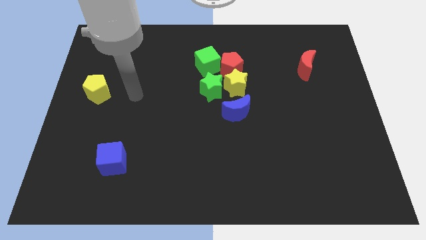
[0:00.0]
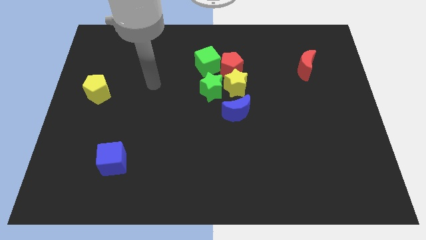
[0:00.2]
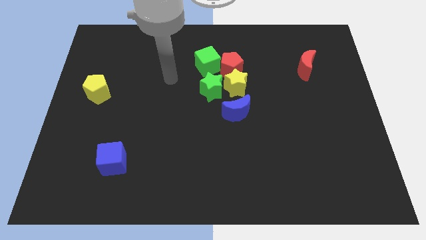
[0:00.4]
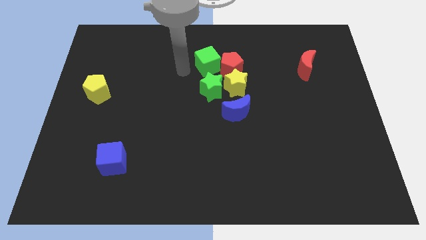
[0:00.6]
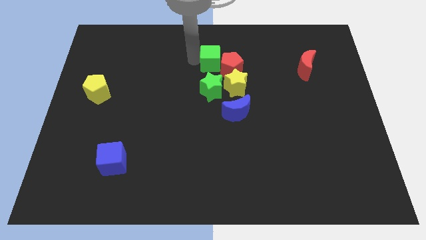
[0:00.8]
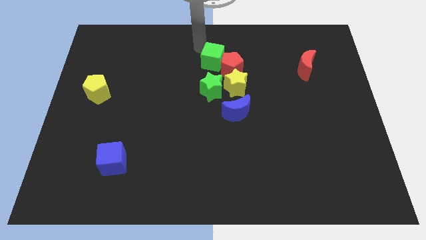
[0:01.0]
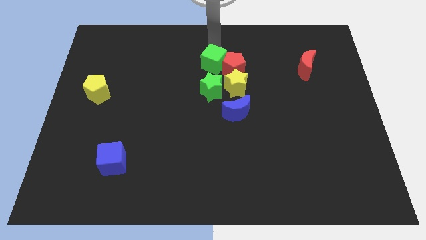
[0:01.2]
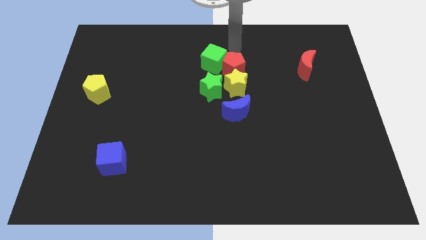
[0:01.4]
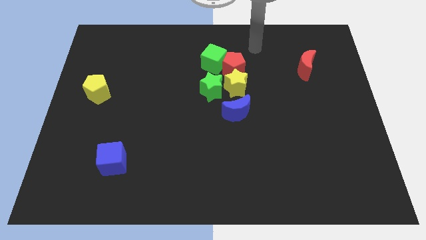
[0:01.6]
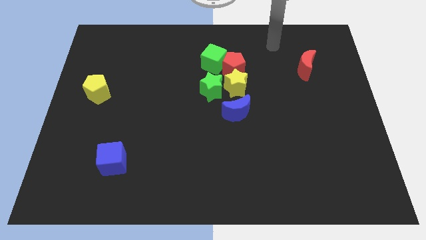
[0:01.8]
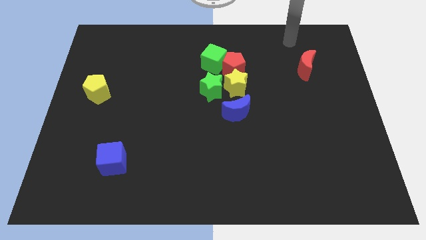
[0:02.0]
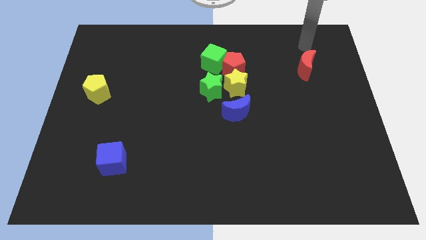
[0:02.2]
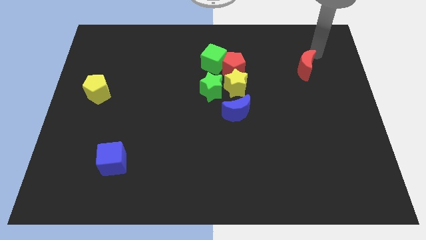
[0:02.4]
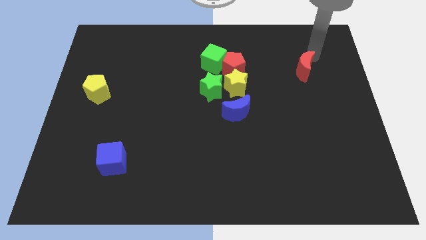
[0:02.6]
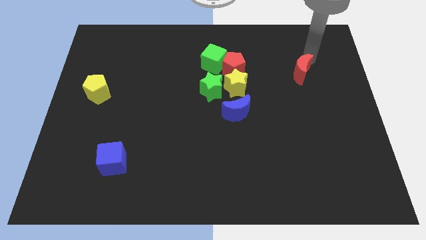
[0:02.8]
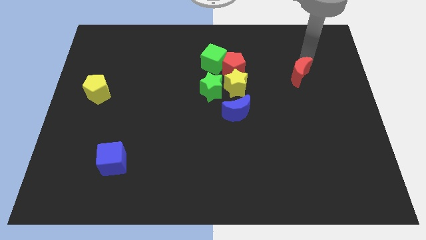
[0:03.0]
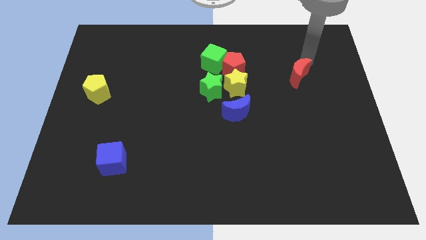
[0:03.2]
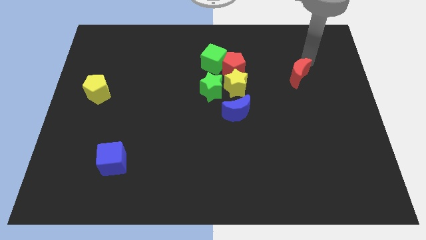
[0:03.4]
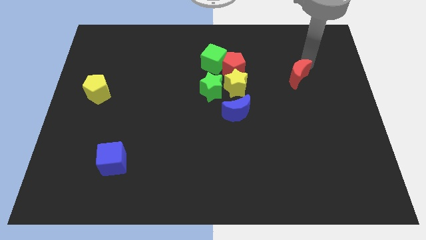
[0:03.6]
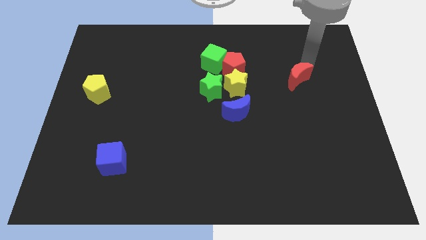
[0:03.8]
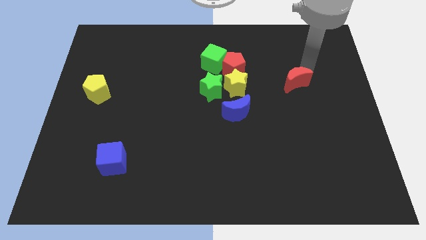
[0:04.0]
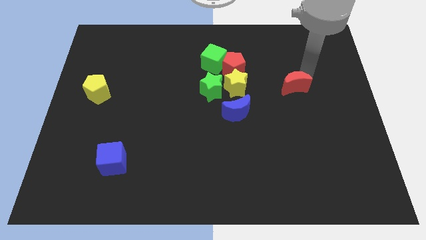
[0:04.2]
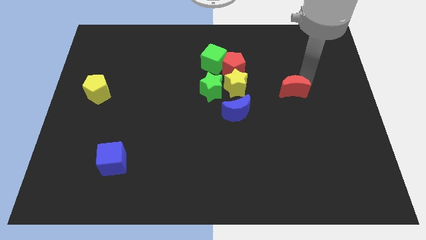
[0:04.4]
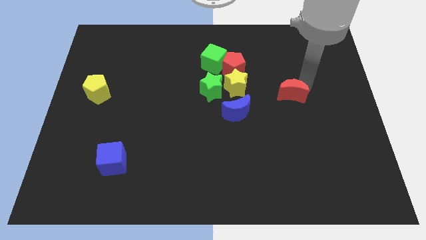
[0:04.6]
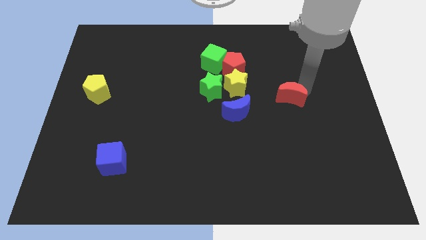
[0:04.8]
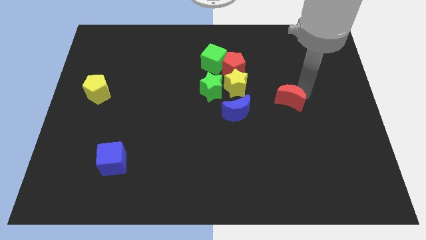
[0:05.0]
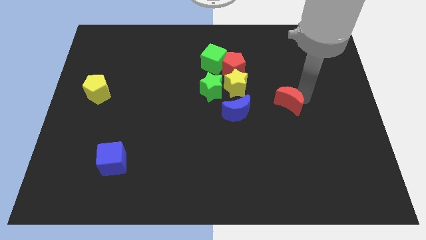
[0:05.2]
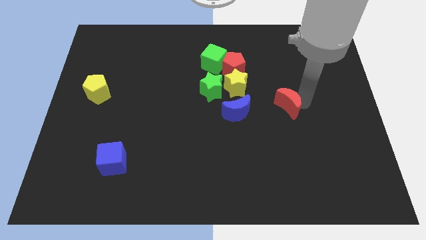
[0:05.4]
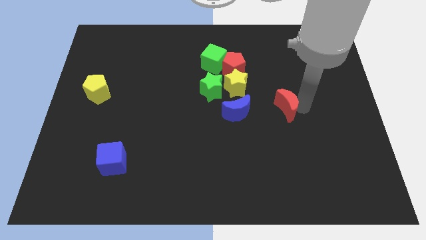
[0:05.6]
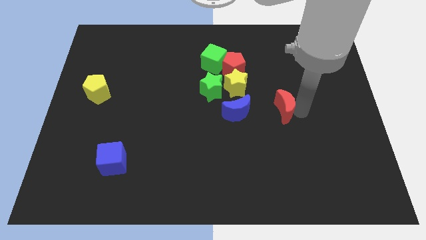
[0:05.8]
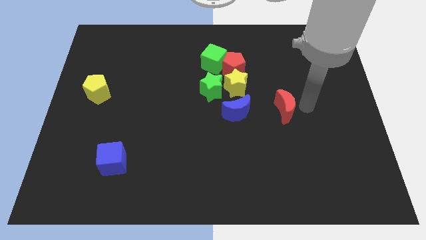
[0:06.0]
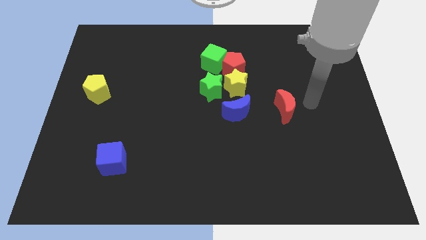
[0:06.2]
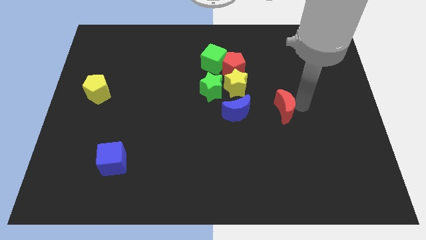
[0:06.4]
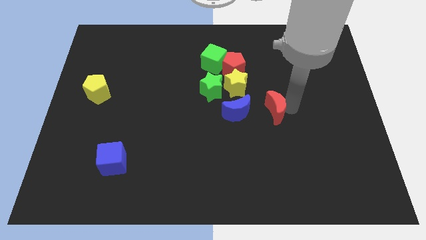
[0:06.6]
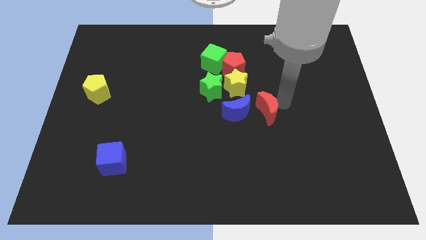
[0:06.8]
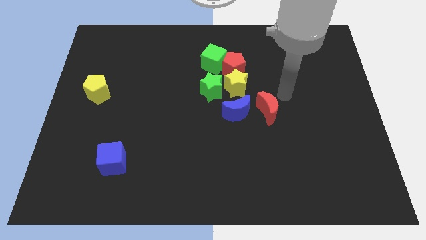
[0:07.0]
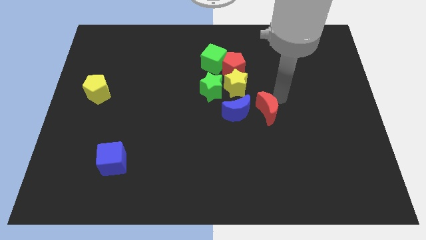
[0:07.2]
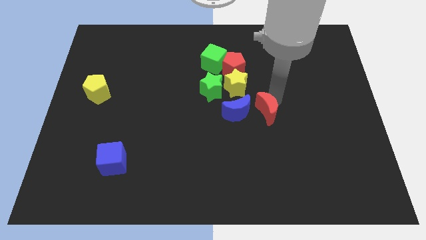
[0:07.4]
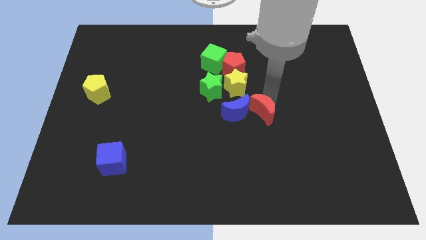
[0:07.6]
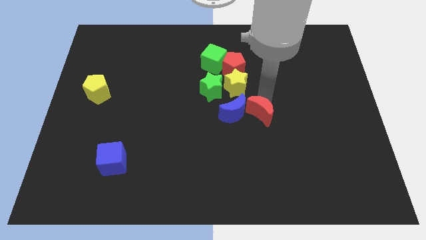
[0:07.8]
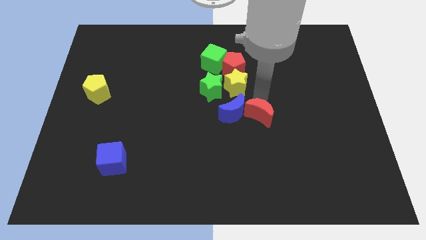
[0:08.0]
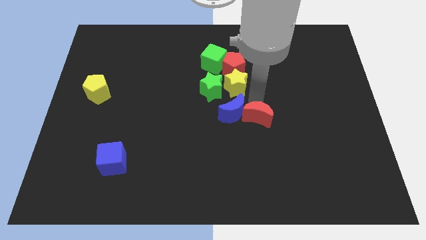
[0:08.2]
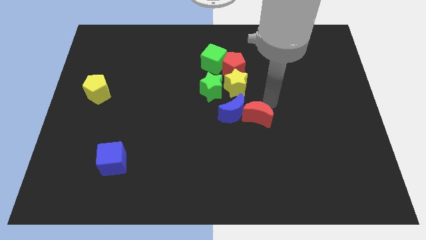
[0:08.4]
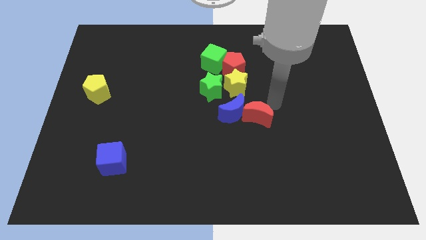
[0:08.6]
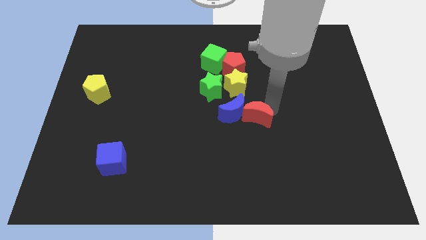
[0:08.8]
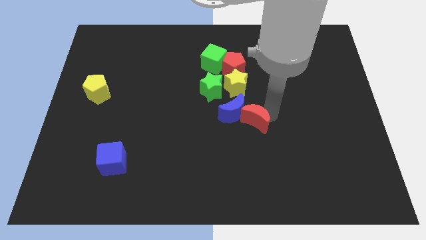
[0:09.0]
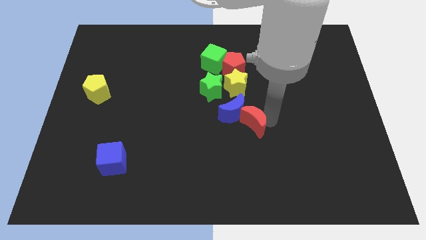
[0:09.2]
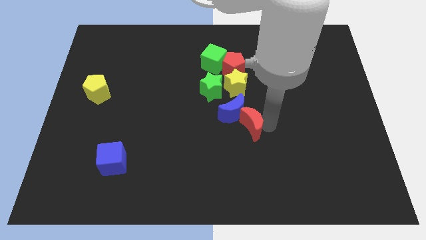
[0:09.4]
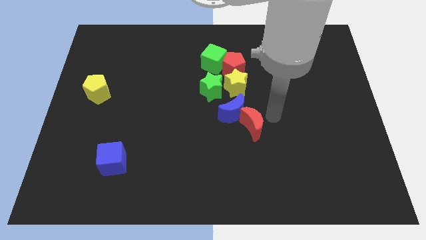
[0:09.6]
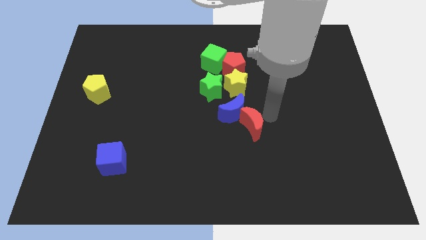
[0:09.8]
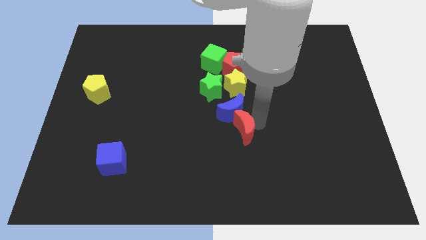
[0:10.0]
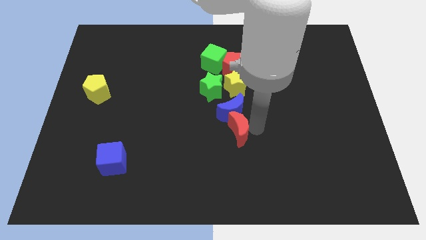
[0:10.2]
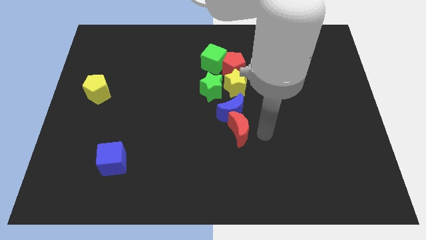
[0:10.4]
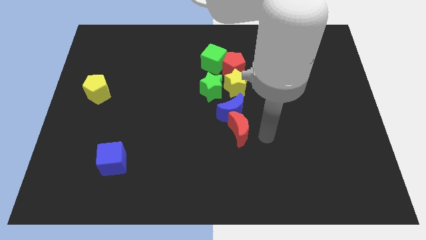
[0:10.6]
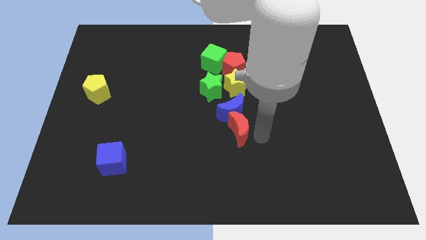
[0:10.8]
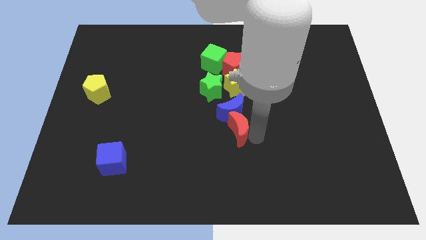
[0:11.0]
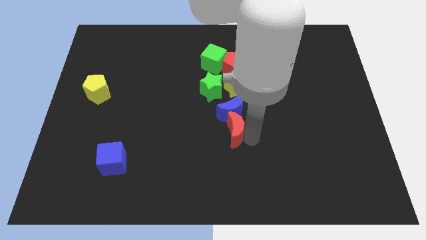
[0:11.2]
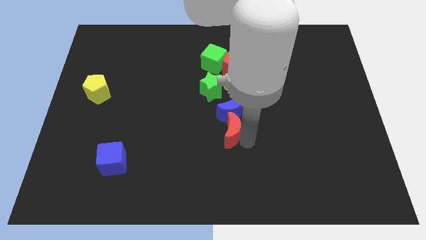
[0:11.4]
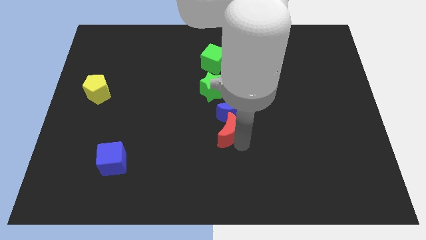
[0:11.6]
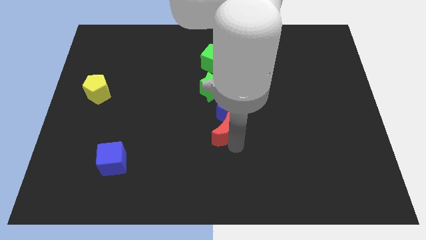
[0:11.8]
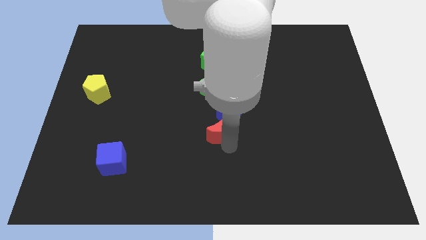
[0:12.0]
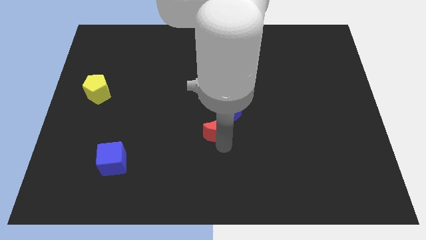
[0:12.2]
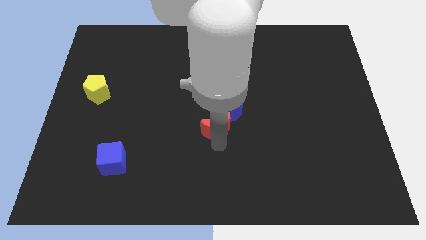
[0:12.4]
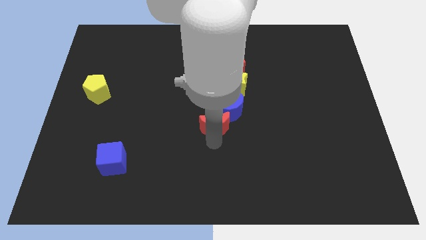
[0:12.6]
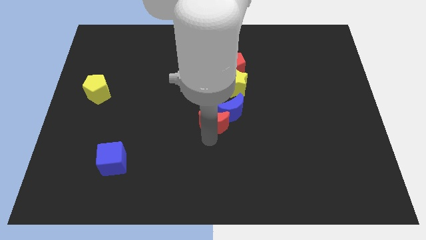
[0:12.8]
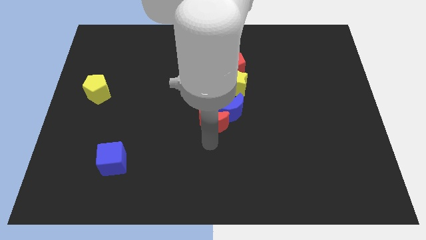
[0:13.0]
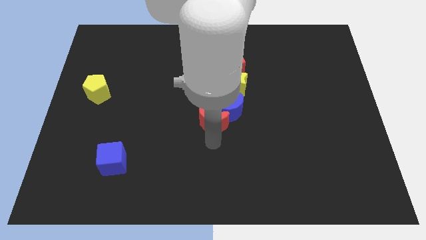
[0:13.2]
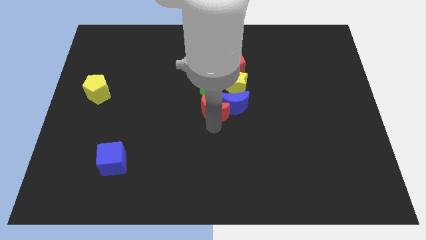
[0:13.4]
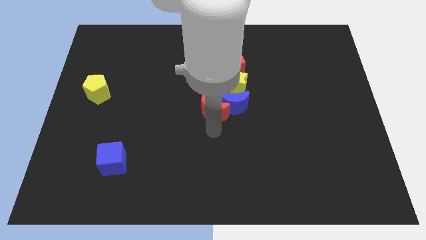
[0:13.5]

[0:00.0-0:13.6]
slide the red moon to the bottom side of the green cube

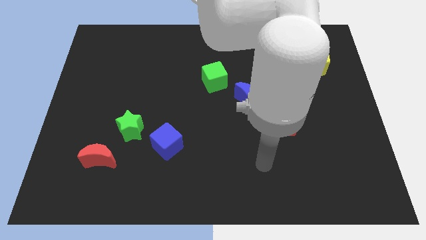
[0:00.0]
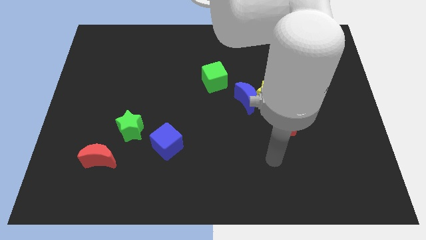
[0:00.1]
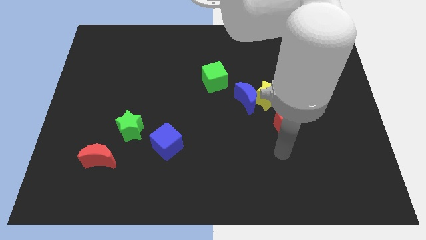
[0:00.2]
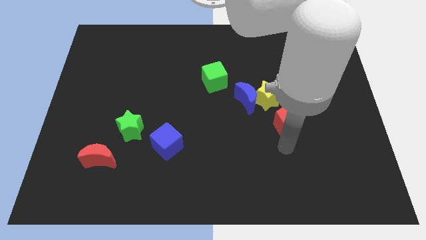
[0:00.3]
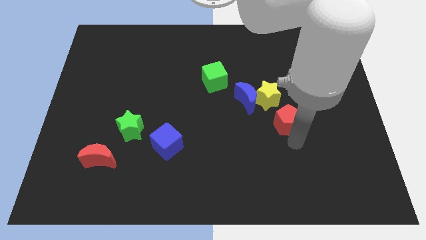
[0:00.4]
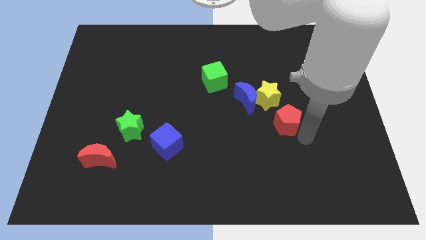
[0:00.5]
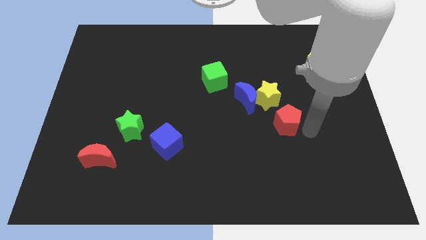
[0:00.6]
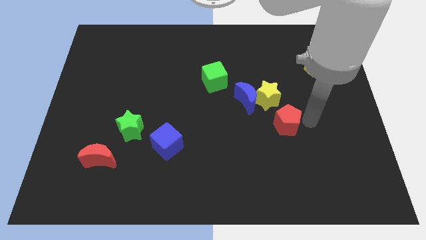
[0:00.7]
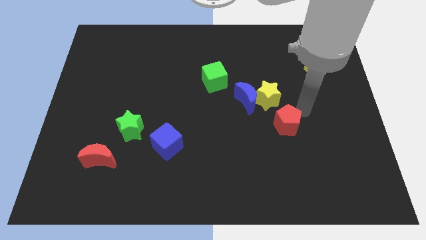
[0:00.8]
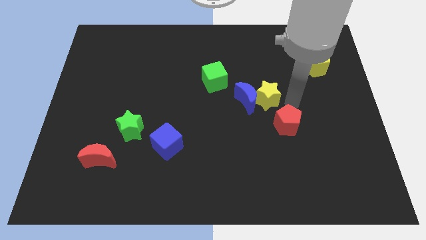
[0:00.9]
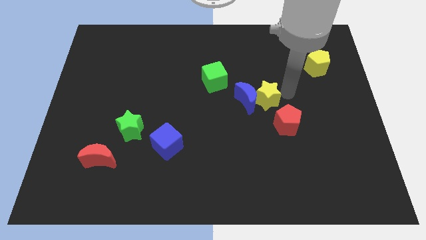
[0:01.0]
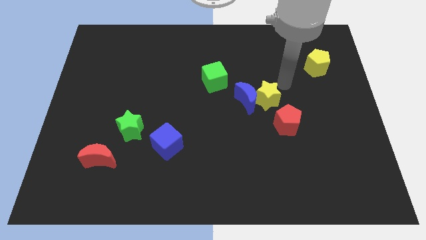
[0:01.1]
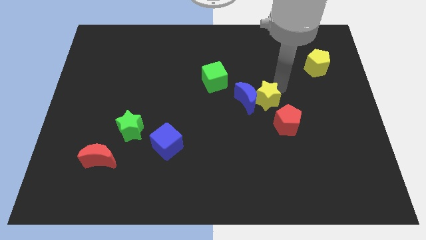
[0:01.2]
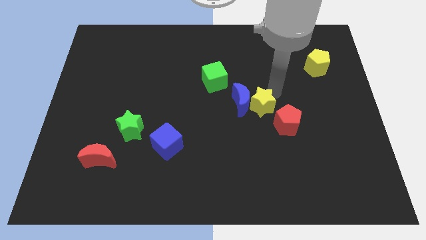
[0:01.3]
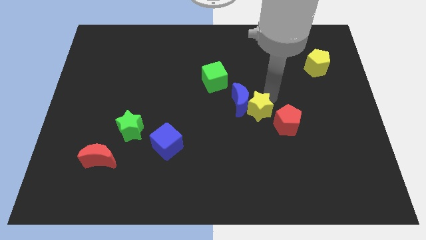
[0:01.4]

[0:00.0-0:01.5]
put the yellow star to the left of the red pentagon
